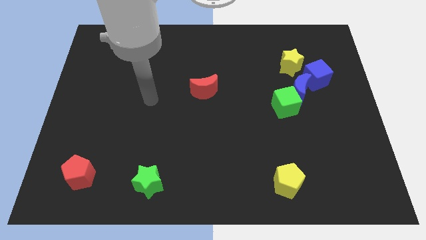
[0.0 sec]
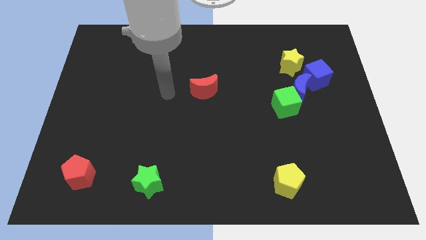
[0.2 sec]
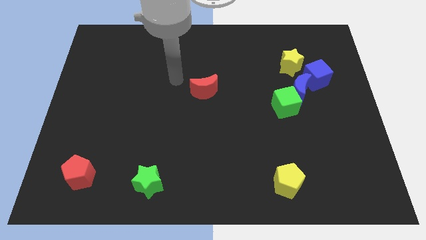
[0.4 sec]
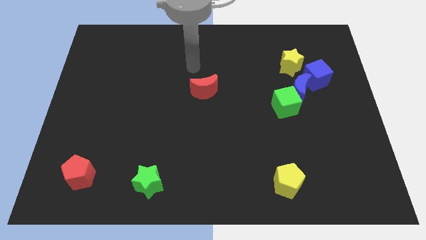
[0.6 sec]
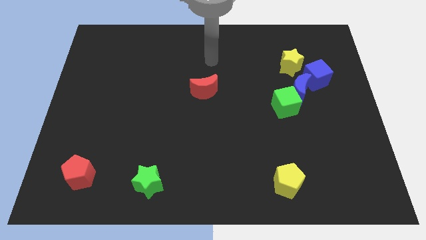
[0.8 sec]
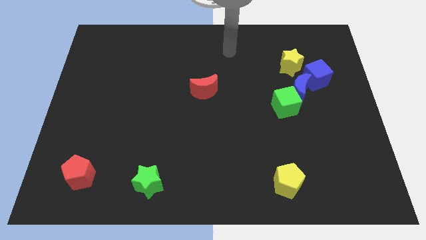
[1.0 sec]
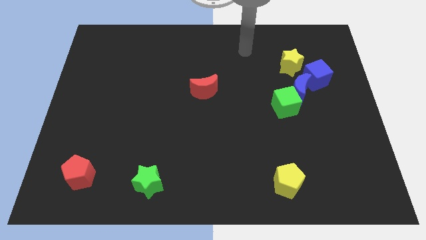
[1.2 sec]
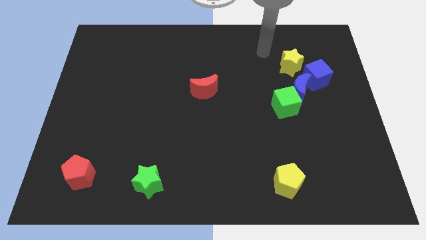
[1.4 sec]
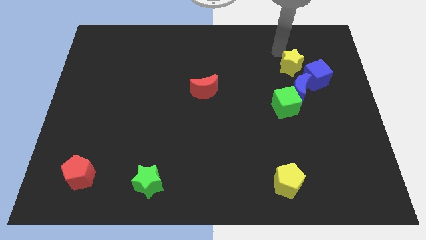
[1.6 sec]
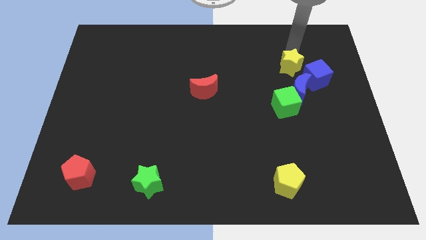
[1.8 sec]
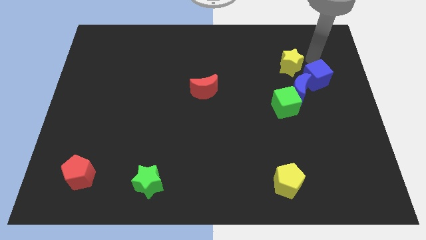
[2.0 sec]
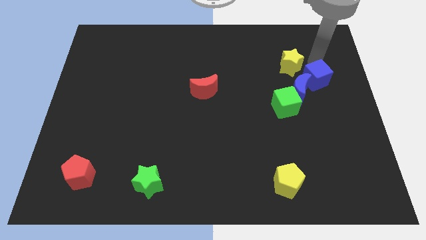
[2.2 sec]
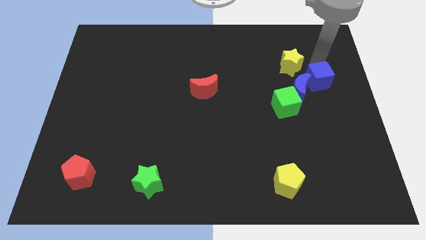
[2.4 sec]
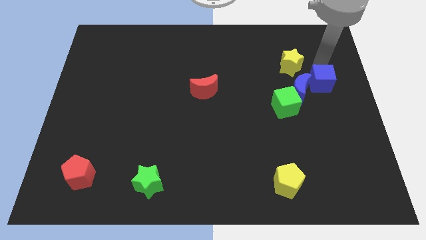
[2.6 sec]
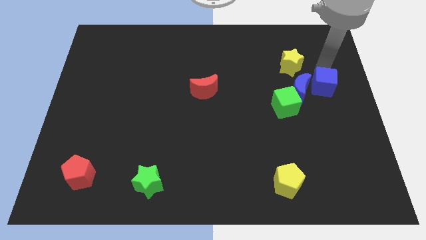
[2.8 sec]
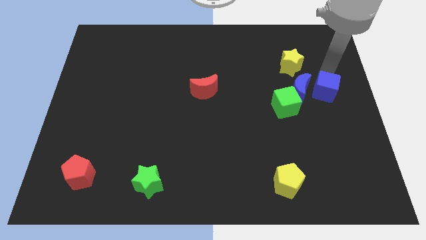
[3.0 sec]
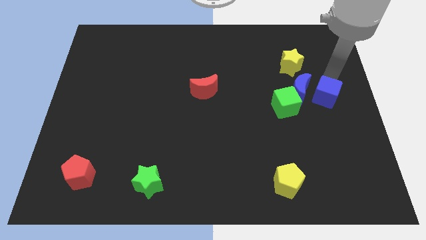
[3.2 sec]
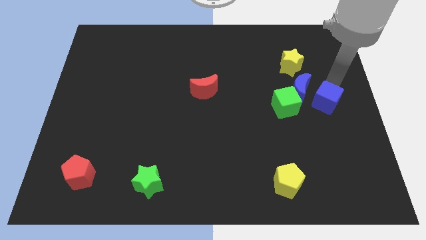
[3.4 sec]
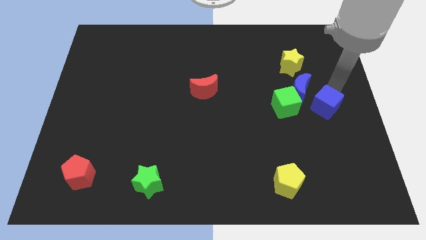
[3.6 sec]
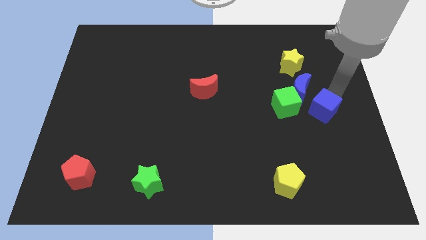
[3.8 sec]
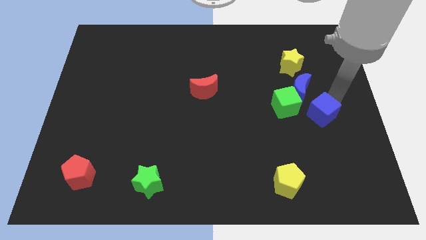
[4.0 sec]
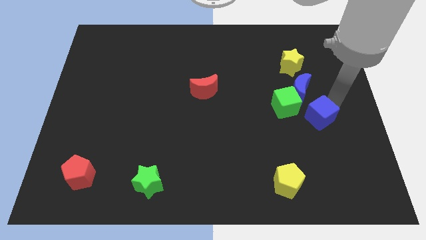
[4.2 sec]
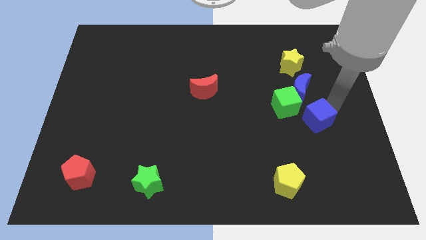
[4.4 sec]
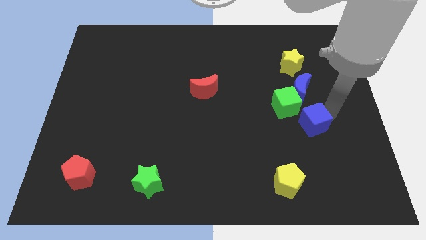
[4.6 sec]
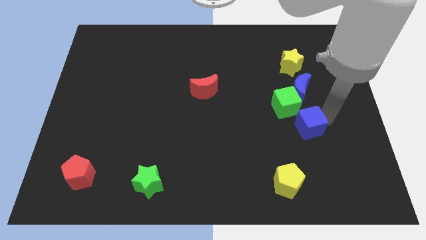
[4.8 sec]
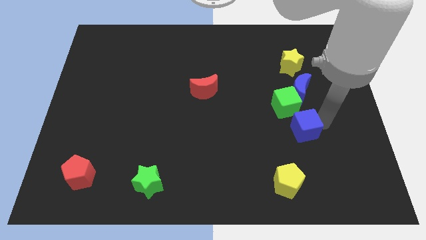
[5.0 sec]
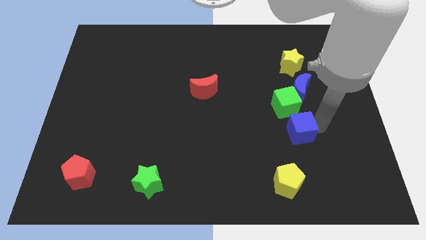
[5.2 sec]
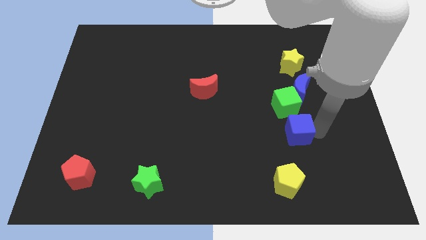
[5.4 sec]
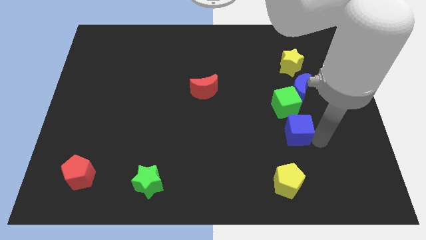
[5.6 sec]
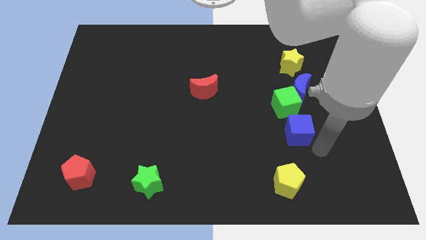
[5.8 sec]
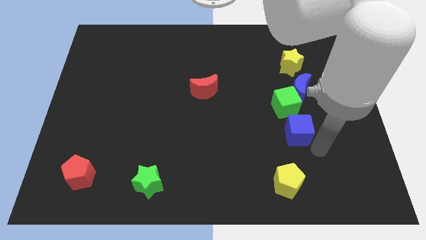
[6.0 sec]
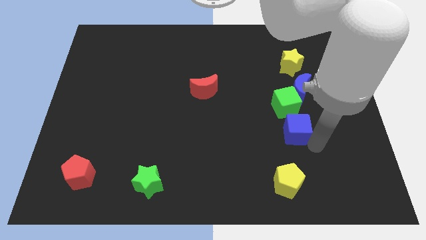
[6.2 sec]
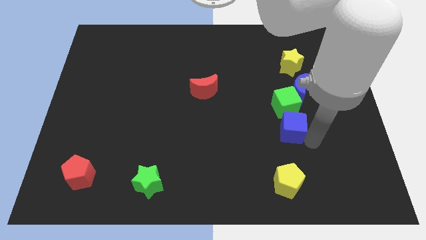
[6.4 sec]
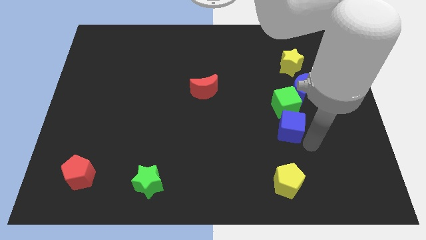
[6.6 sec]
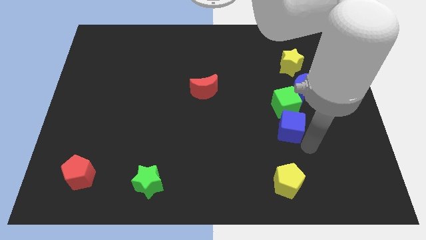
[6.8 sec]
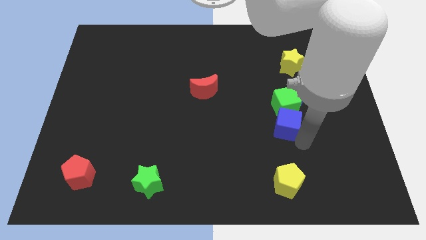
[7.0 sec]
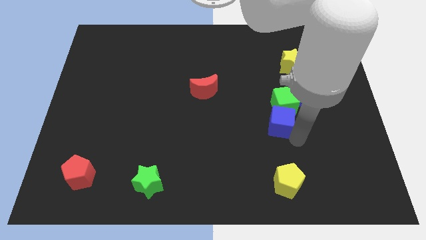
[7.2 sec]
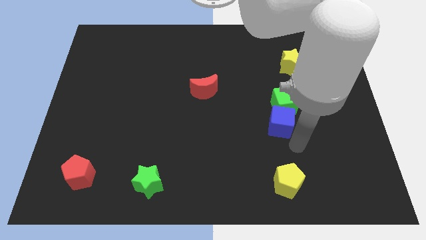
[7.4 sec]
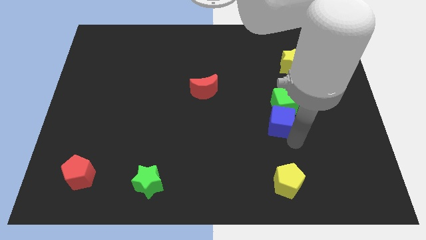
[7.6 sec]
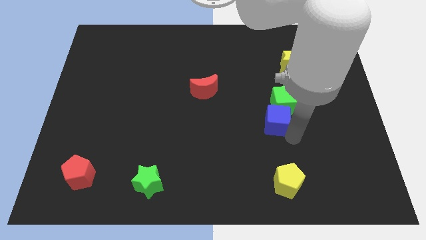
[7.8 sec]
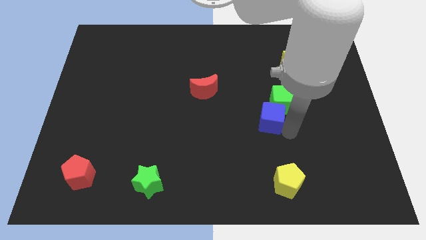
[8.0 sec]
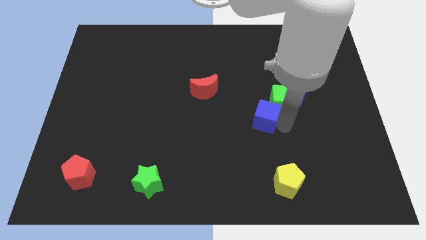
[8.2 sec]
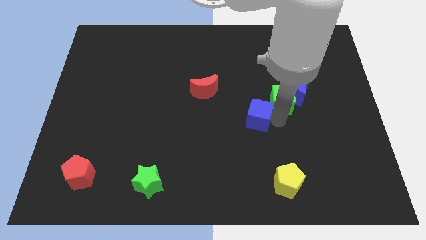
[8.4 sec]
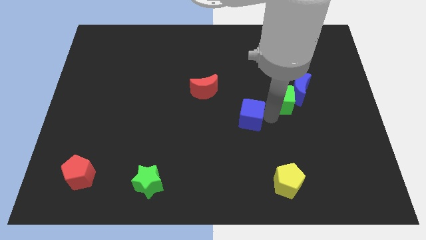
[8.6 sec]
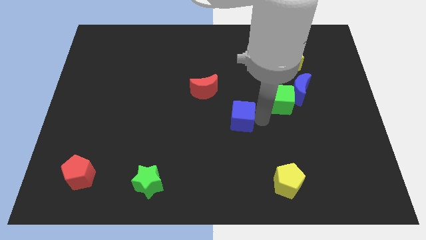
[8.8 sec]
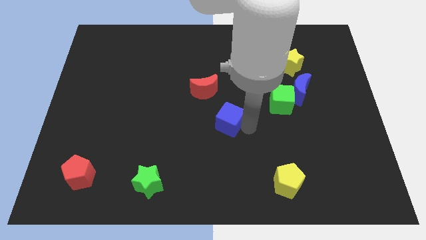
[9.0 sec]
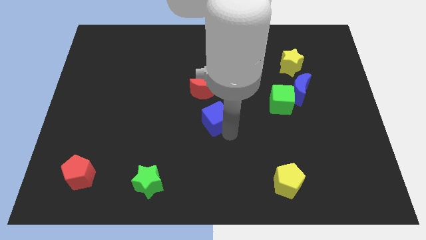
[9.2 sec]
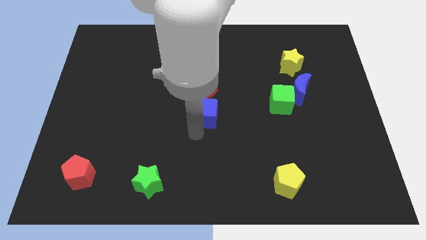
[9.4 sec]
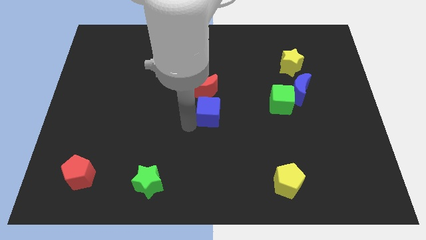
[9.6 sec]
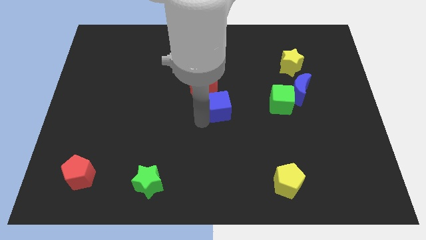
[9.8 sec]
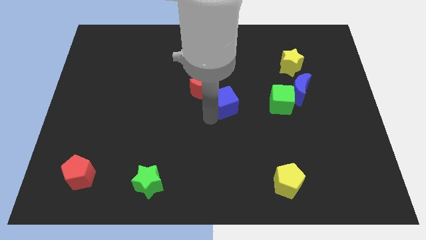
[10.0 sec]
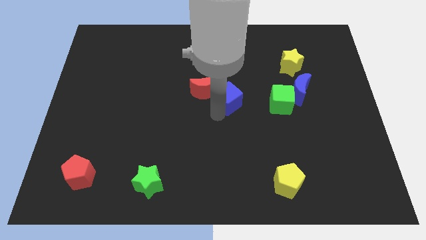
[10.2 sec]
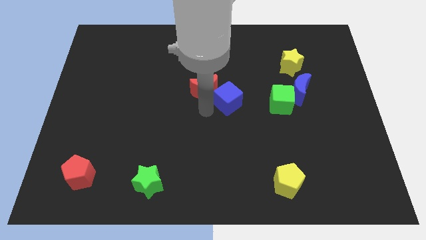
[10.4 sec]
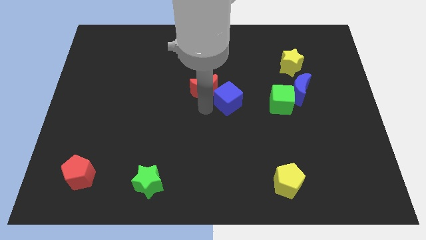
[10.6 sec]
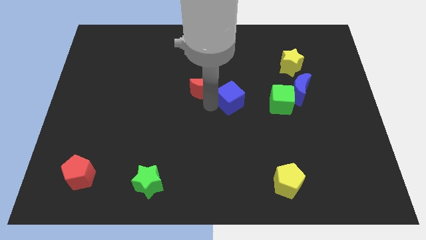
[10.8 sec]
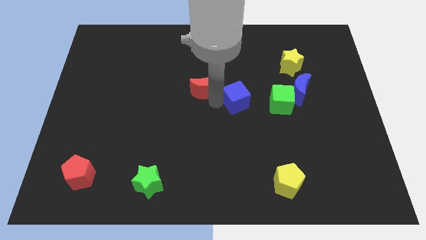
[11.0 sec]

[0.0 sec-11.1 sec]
slide the blue cube just left of the blue moon

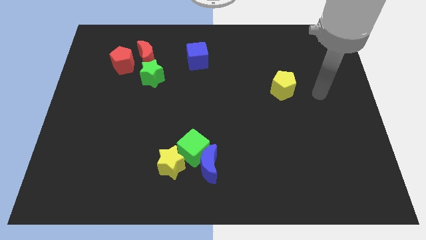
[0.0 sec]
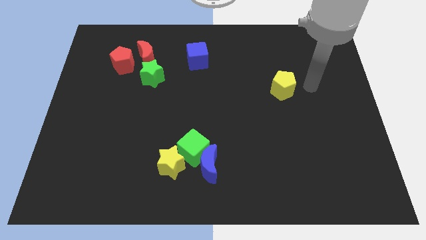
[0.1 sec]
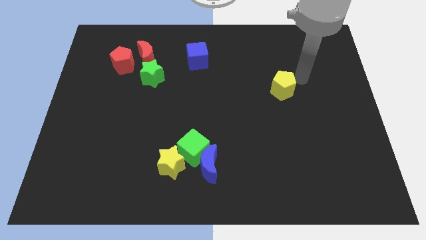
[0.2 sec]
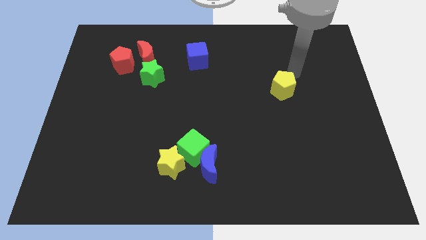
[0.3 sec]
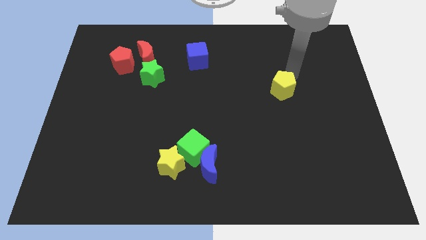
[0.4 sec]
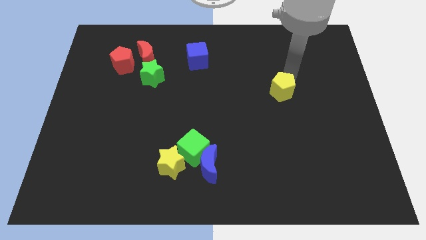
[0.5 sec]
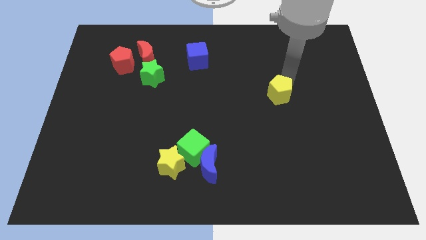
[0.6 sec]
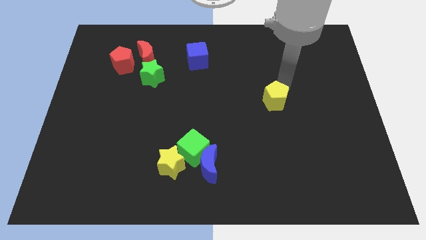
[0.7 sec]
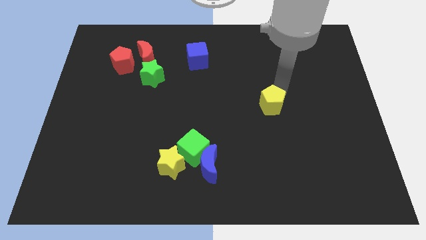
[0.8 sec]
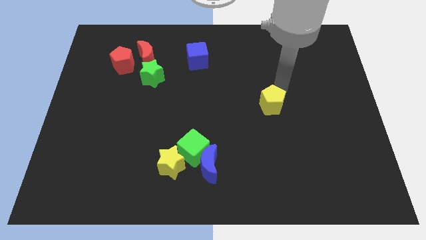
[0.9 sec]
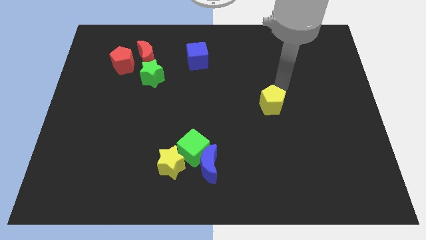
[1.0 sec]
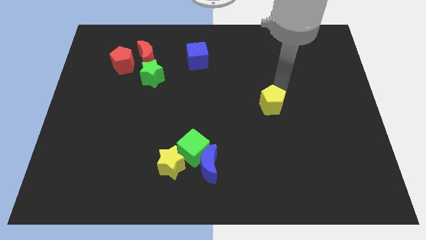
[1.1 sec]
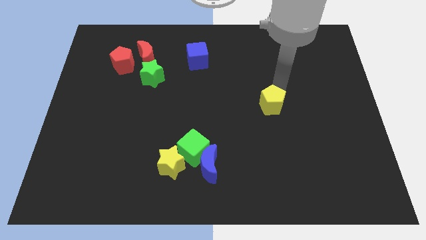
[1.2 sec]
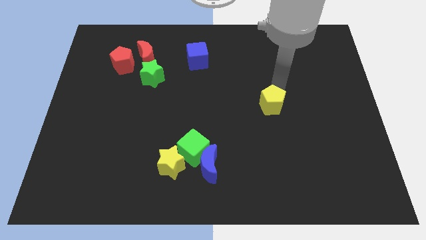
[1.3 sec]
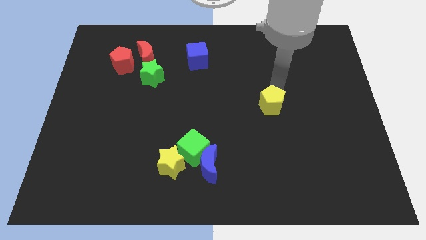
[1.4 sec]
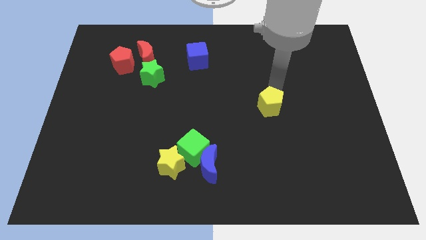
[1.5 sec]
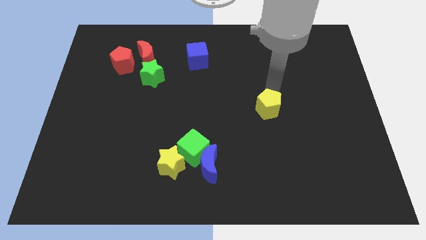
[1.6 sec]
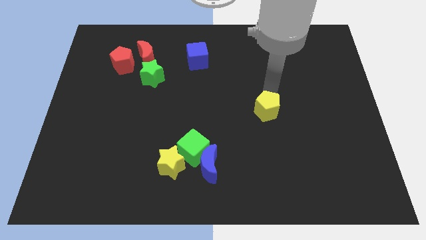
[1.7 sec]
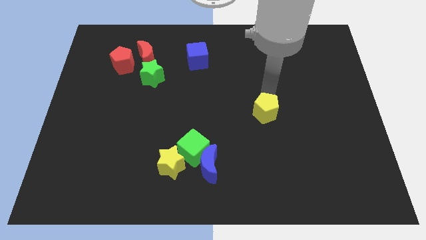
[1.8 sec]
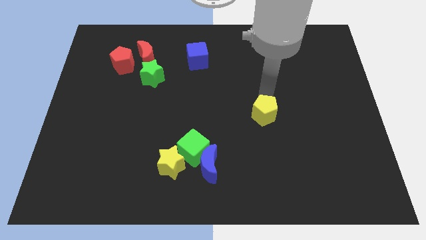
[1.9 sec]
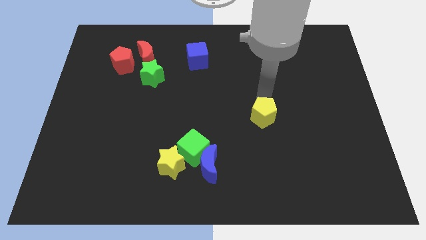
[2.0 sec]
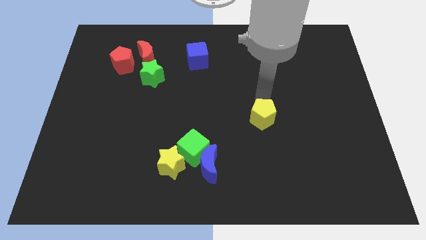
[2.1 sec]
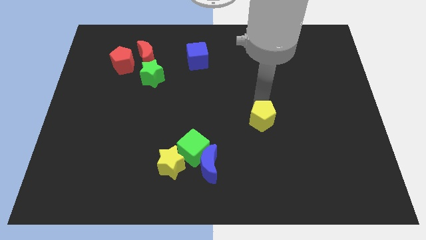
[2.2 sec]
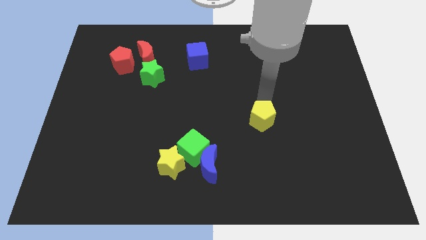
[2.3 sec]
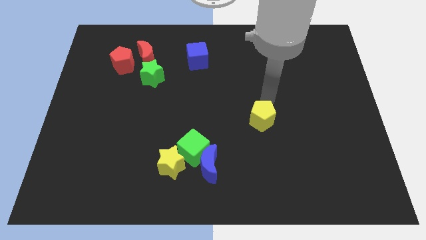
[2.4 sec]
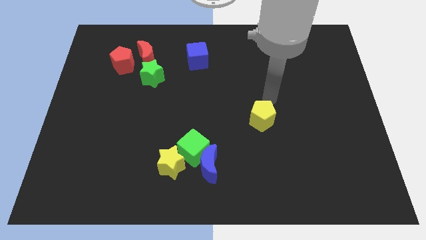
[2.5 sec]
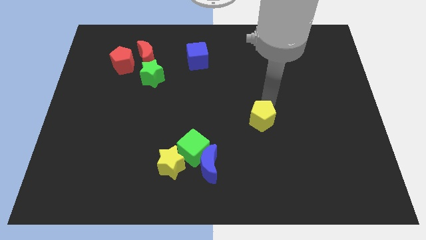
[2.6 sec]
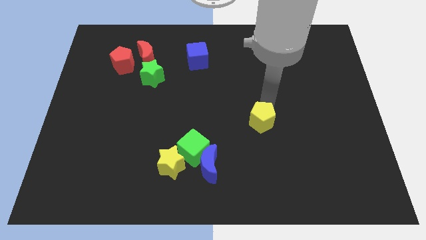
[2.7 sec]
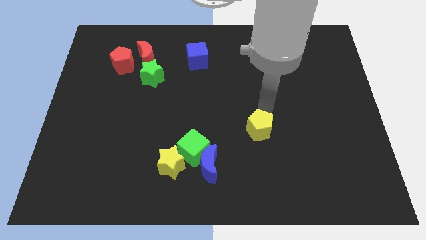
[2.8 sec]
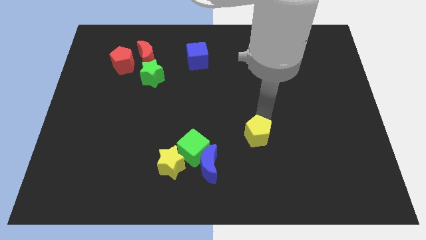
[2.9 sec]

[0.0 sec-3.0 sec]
push the yellow pentagon to the right side of the green cube
